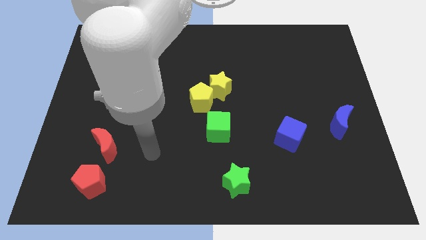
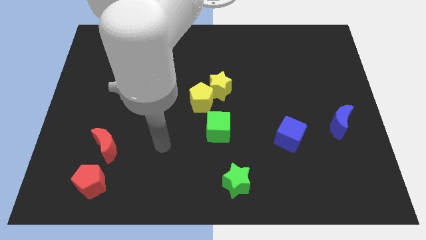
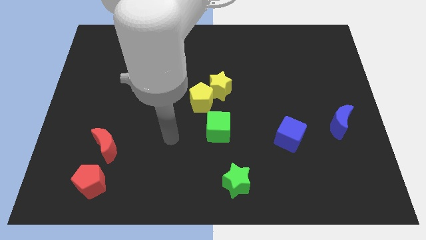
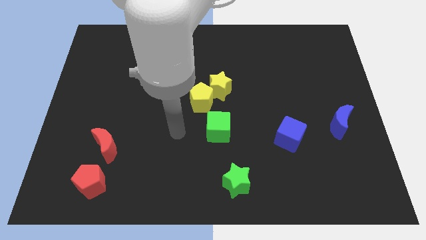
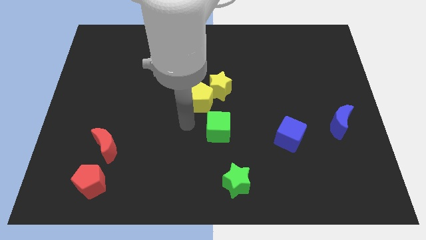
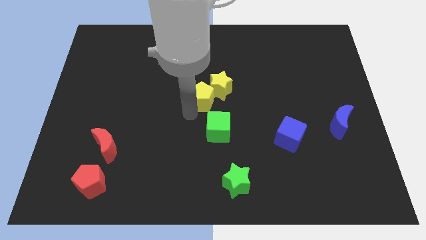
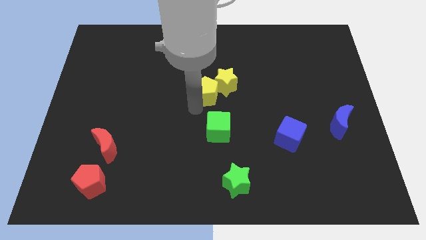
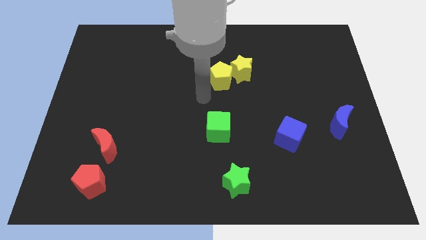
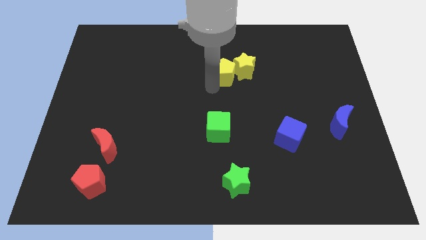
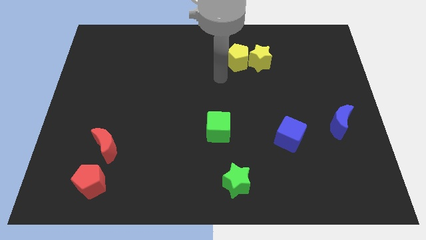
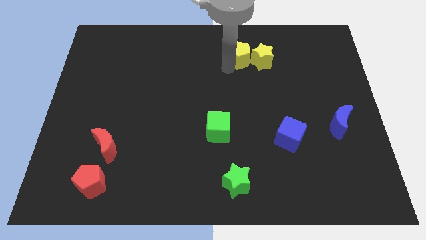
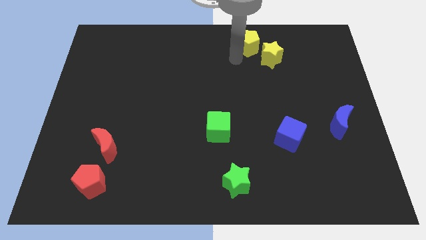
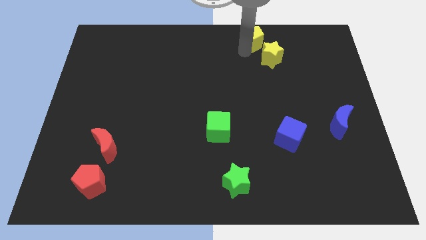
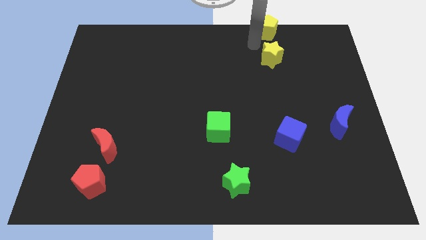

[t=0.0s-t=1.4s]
move the yellow star away from the yellow pentagon

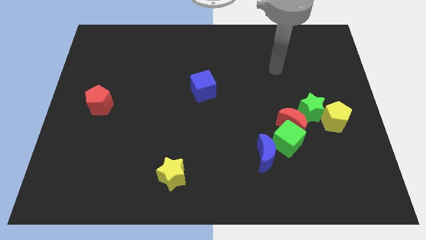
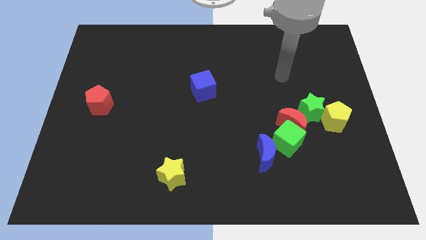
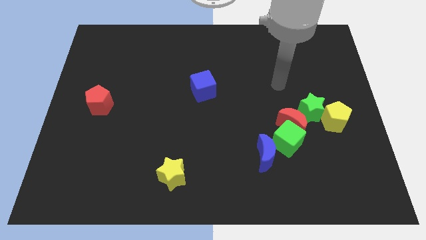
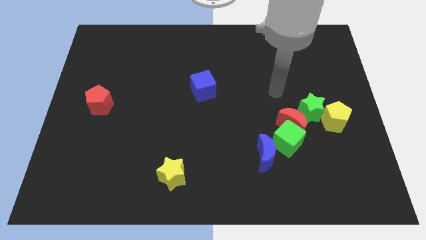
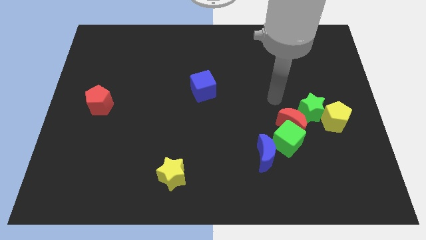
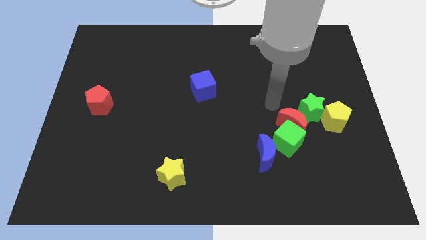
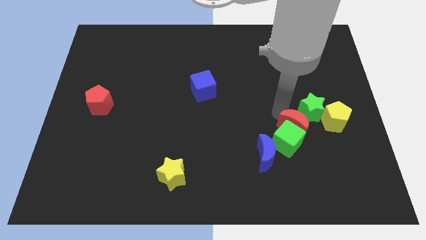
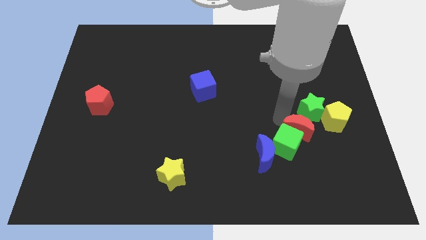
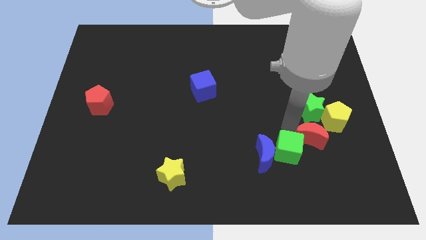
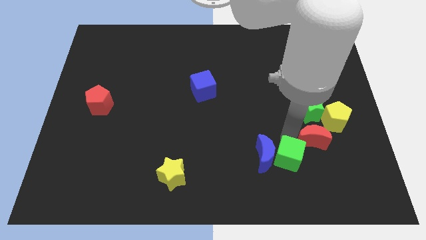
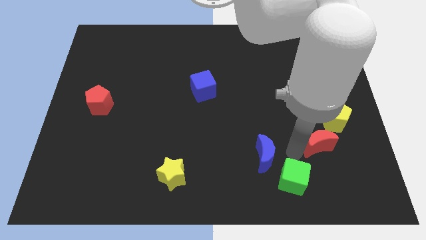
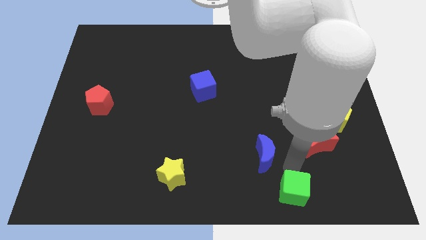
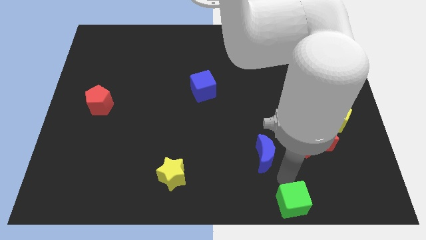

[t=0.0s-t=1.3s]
pull the blue moon apart from the green cube

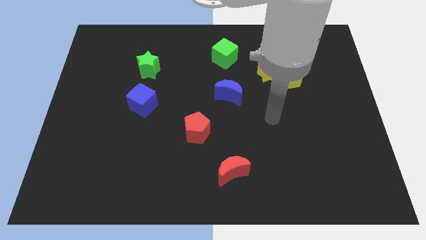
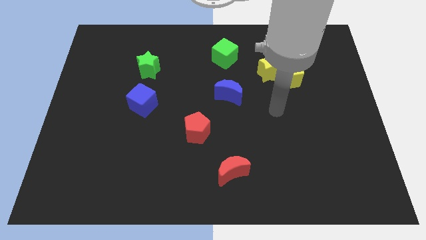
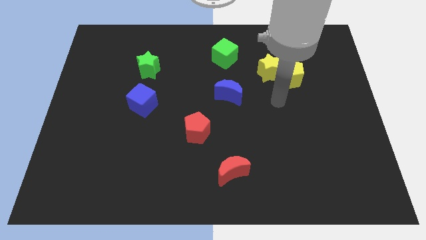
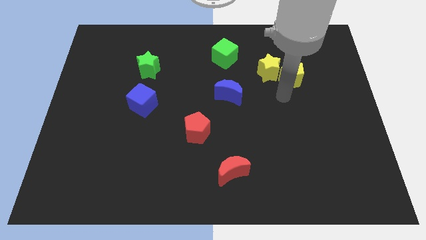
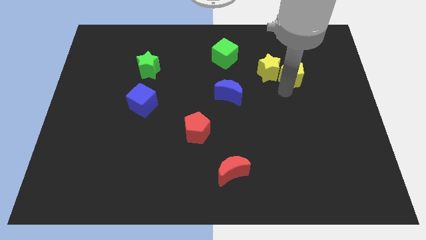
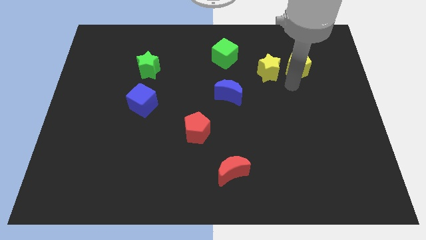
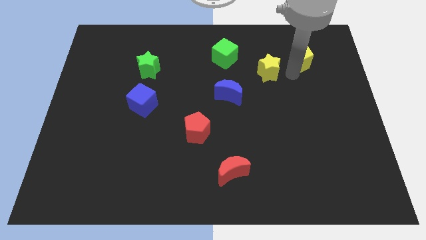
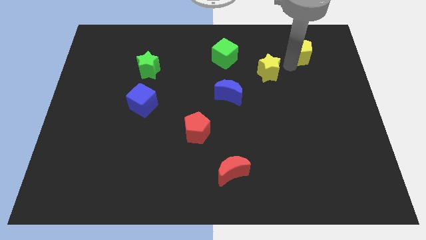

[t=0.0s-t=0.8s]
separate the yellow star from the yellow pentagon

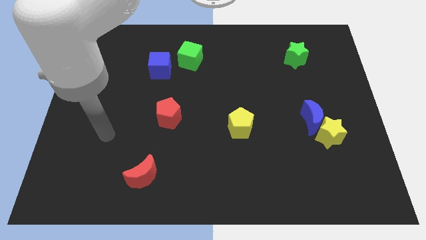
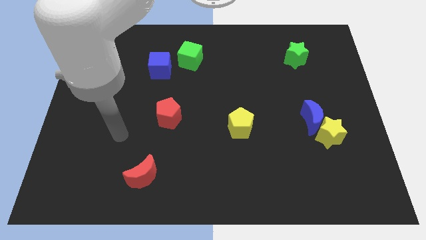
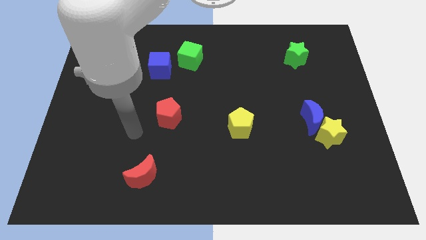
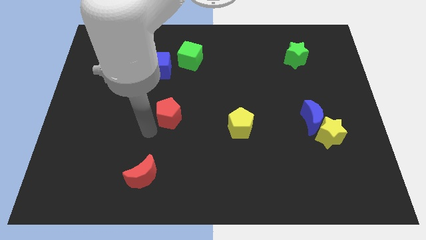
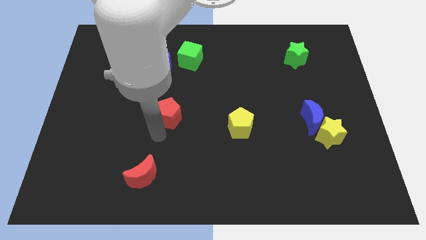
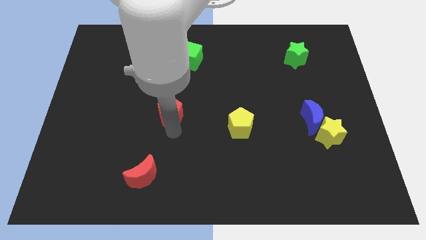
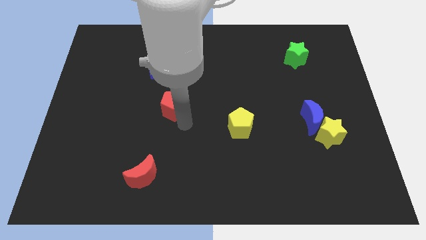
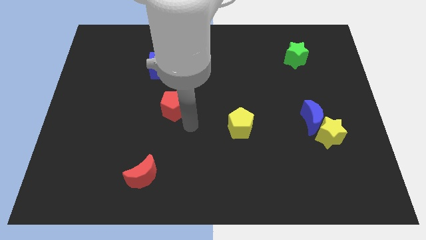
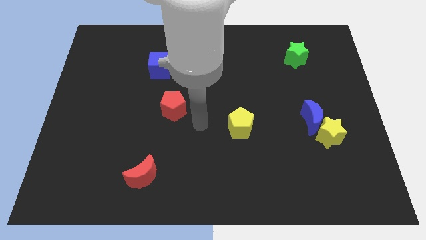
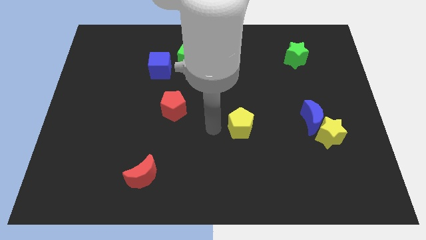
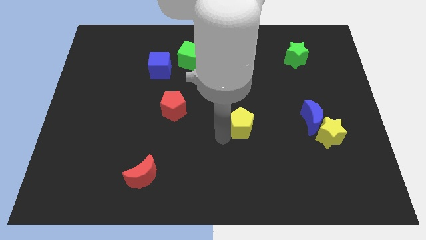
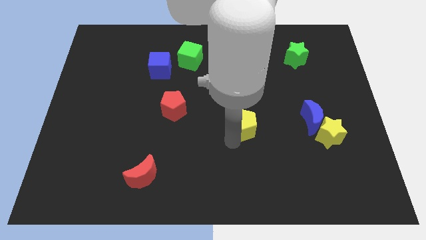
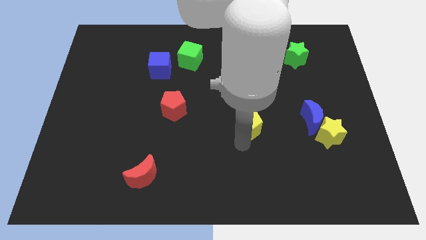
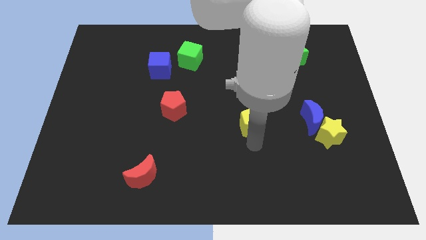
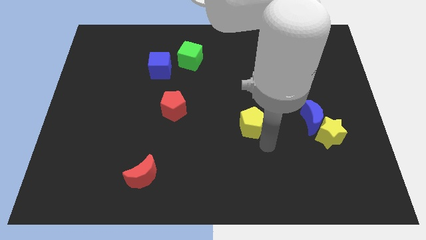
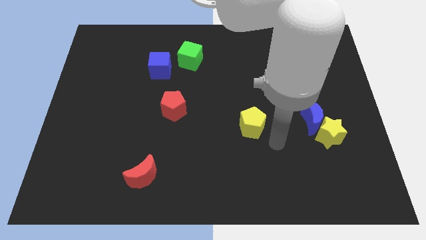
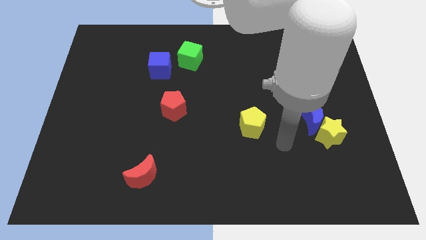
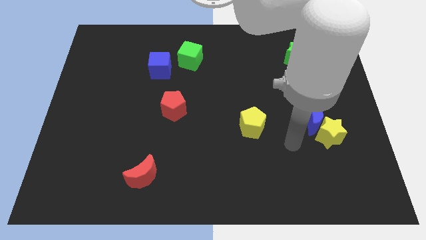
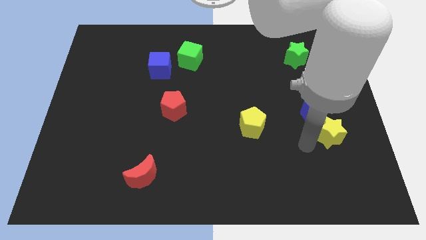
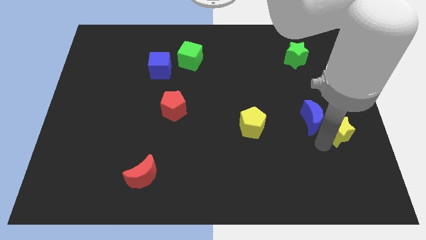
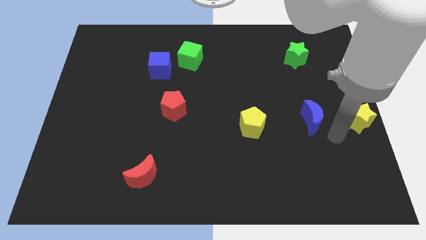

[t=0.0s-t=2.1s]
separate the blue moon from the yellow star

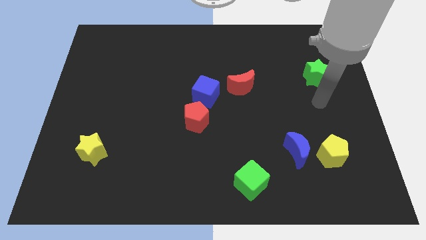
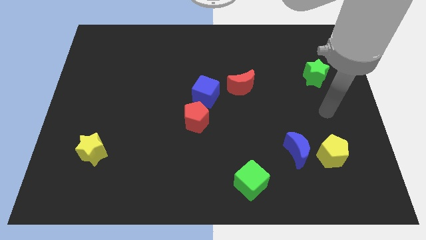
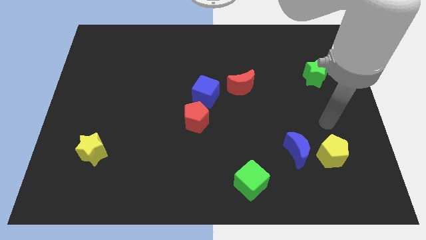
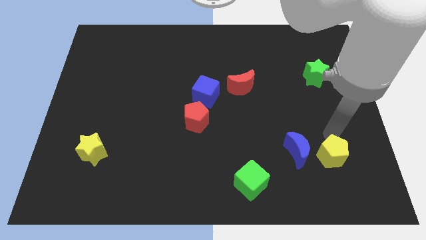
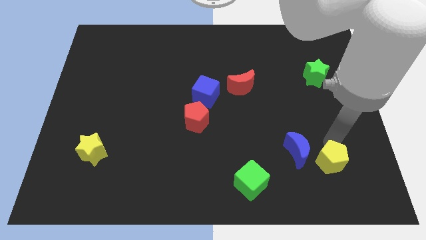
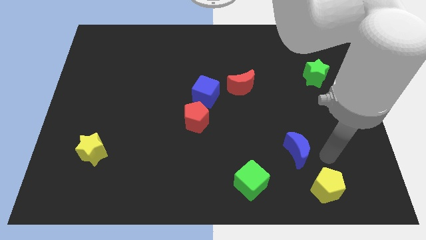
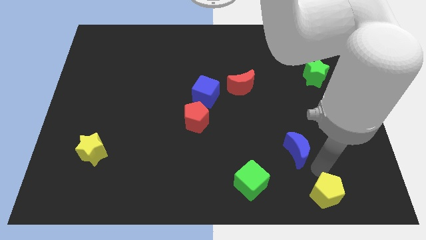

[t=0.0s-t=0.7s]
move the blue moon away from the yellow pentagon

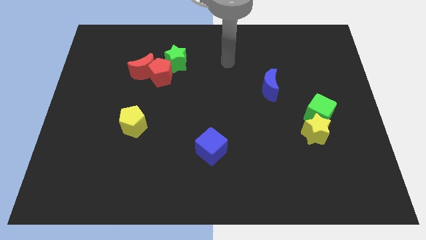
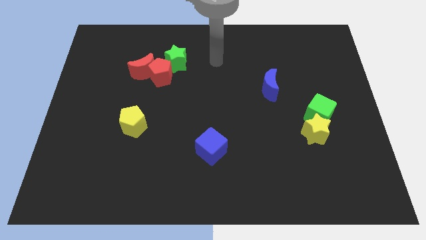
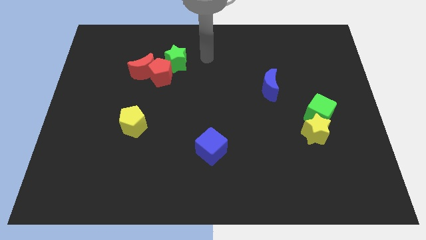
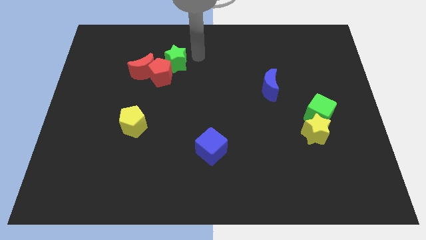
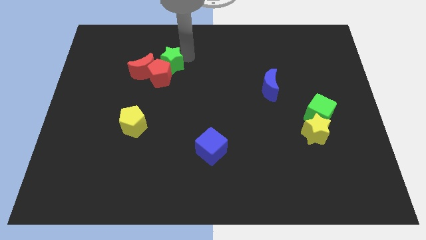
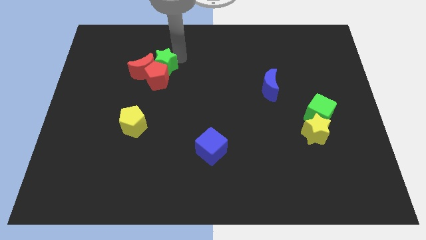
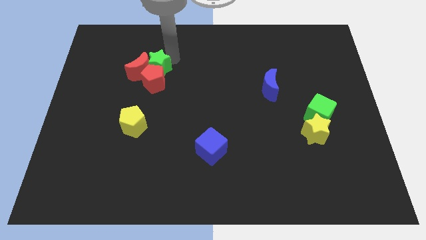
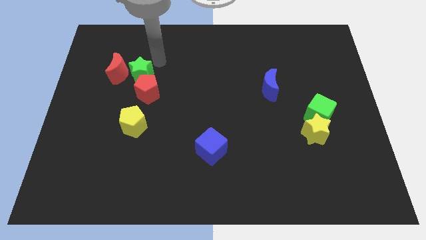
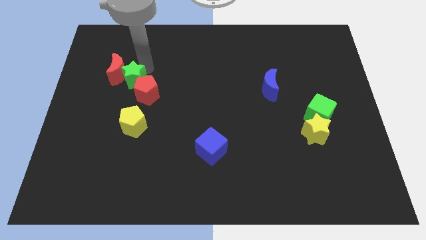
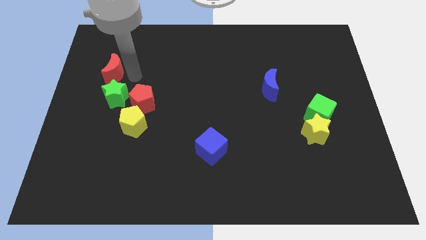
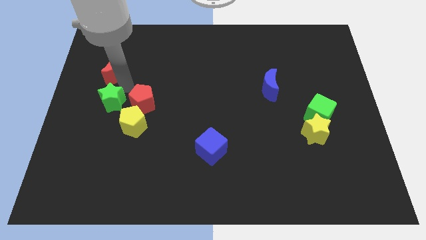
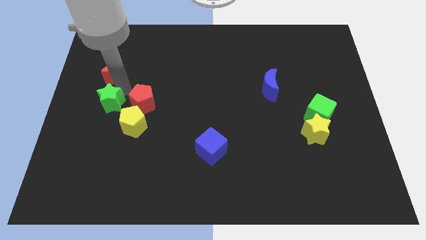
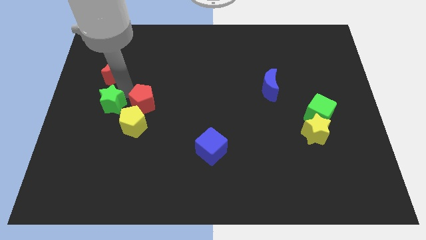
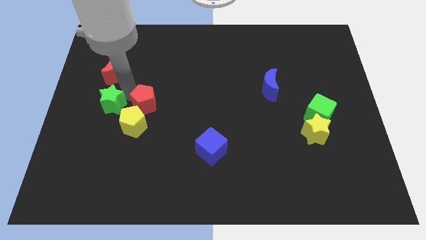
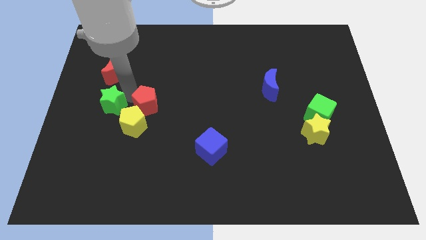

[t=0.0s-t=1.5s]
move the red pentagon away from the red moon and green star

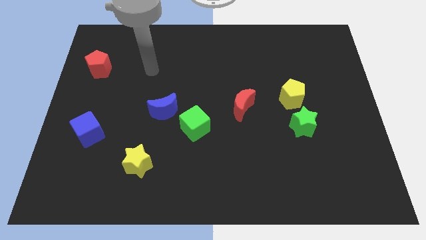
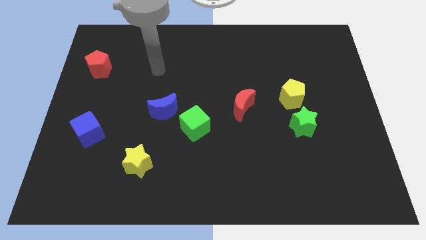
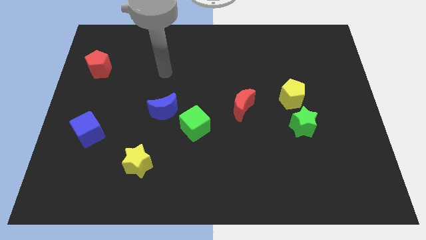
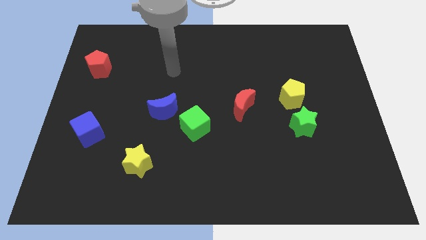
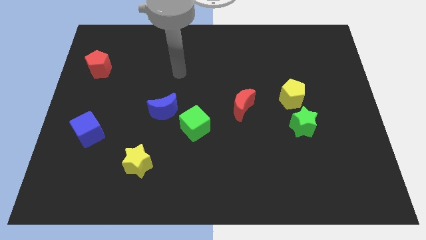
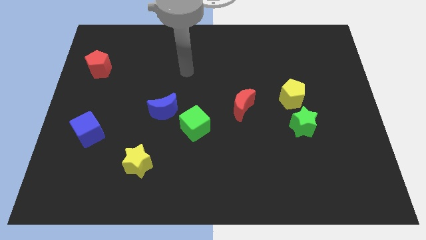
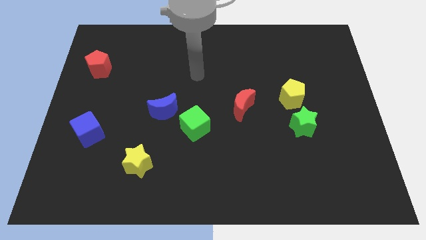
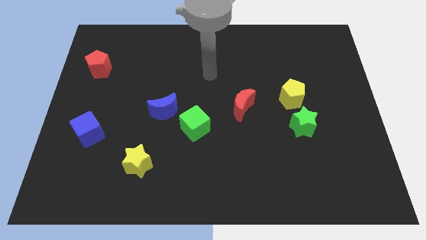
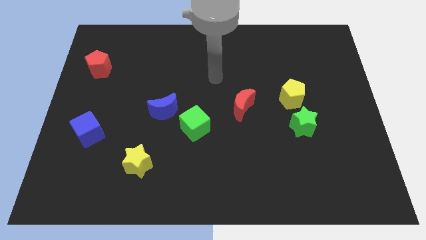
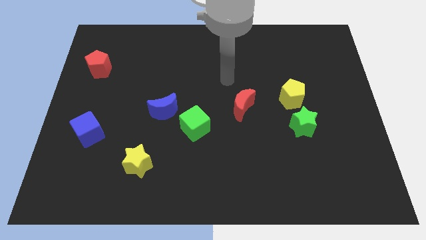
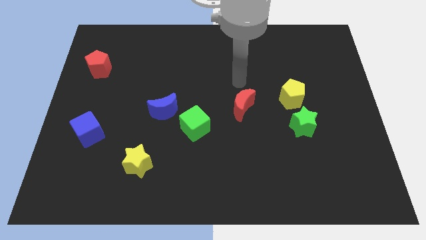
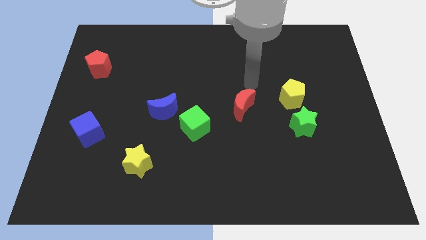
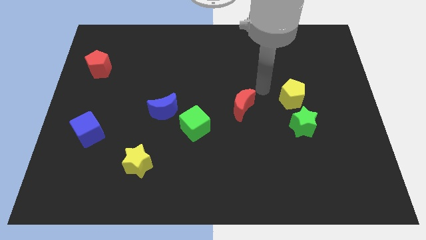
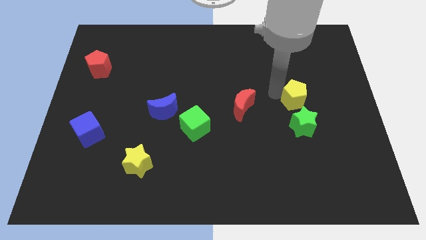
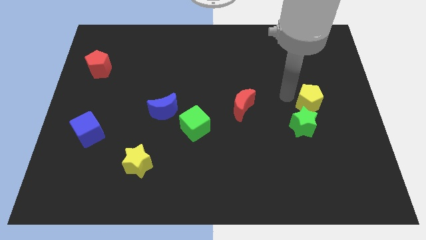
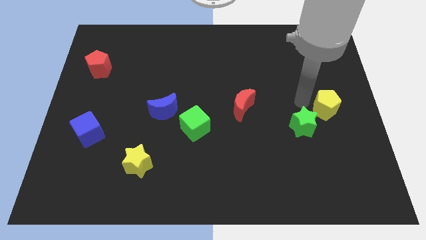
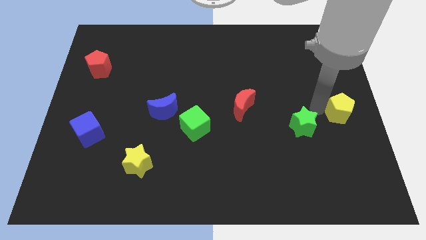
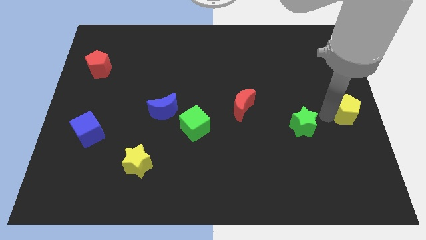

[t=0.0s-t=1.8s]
separate the green star from the yellow pentagon
